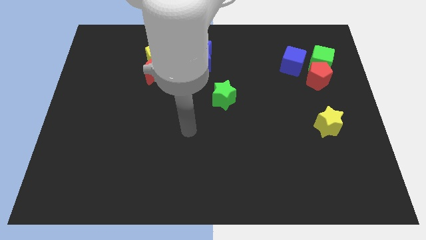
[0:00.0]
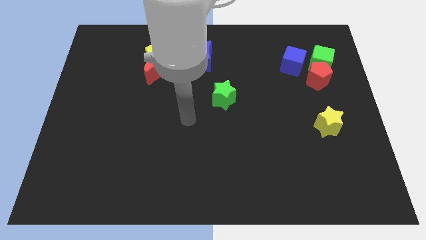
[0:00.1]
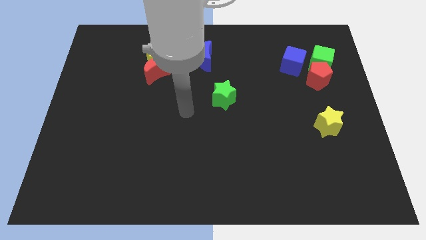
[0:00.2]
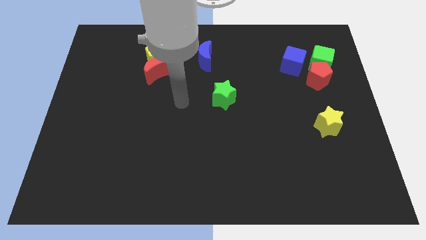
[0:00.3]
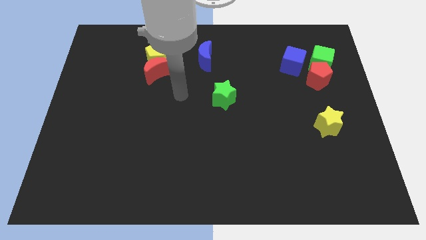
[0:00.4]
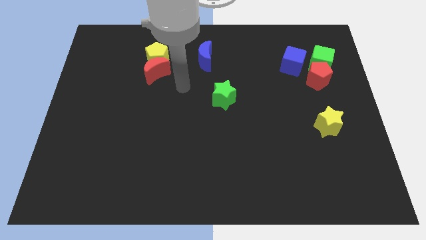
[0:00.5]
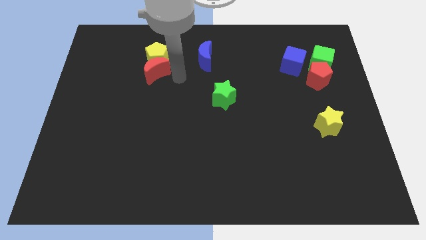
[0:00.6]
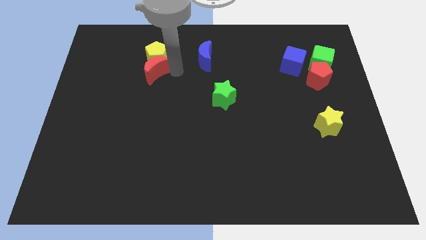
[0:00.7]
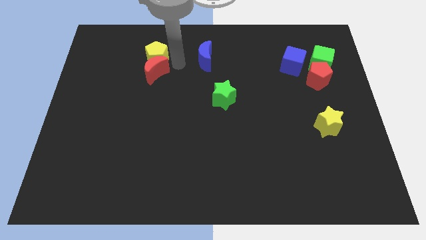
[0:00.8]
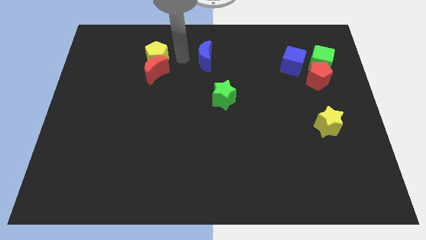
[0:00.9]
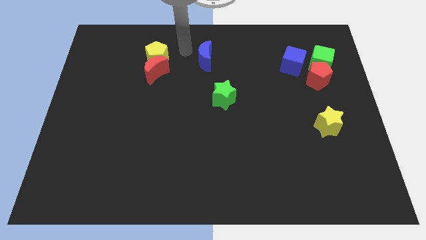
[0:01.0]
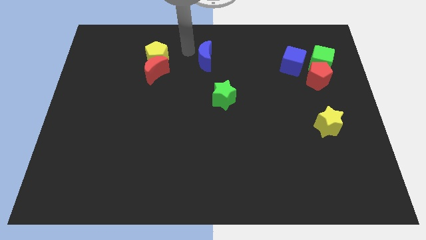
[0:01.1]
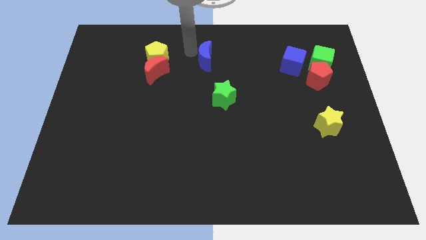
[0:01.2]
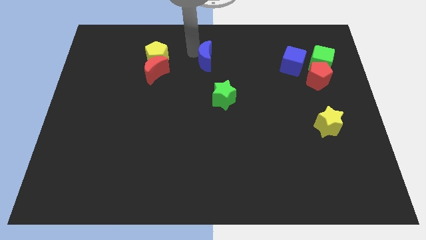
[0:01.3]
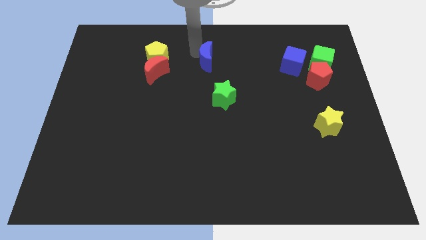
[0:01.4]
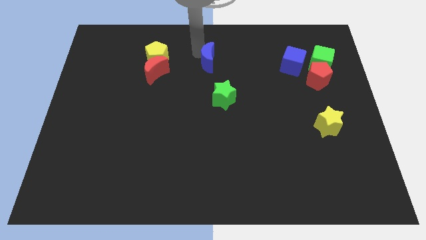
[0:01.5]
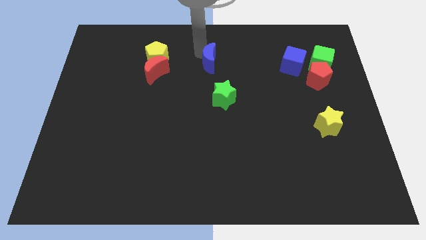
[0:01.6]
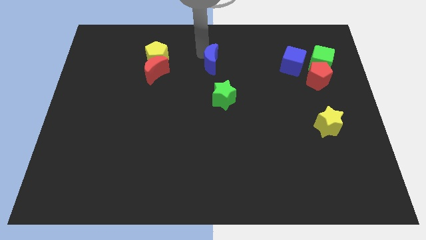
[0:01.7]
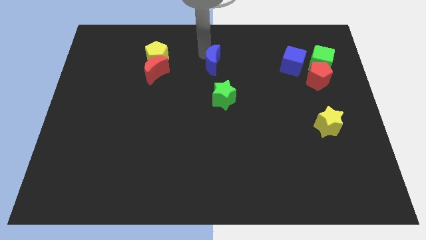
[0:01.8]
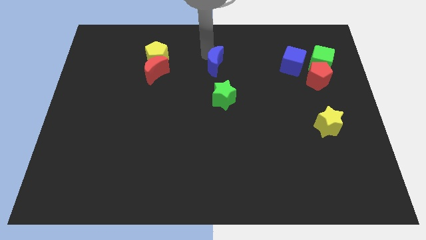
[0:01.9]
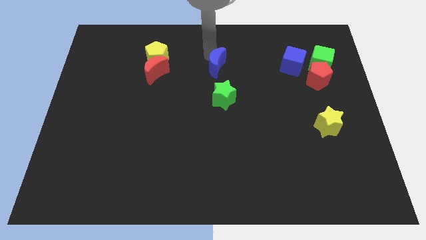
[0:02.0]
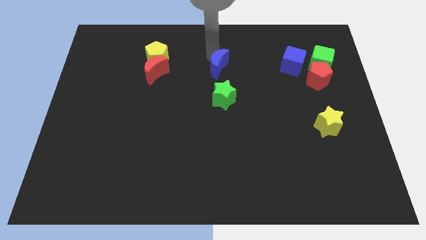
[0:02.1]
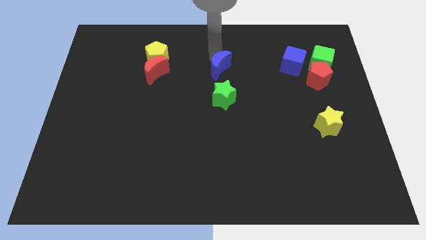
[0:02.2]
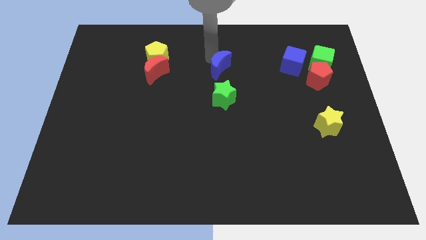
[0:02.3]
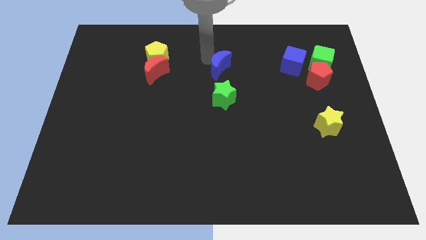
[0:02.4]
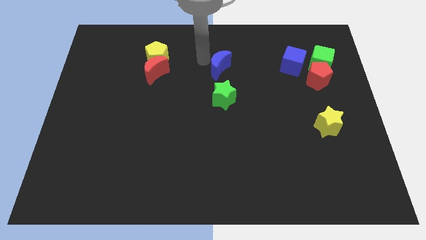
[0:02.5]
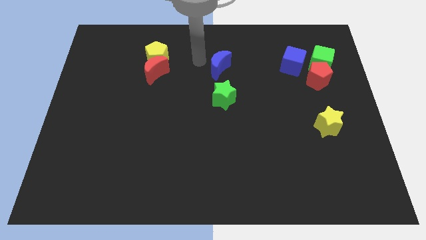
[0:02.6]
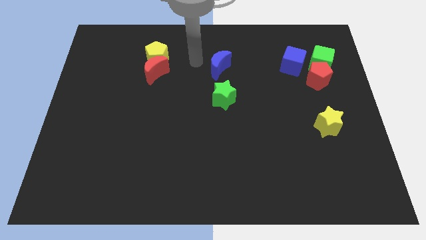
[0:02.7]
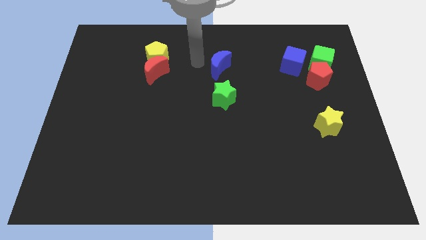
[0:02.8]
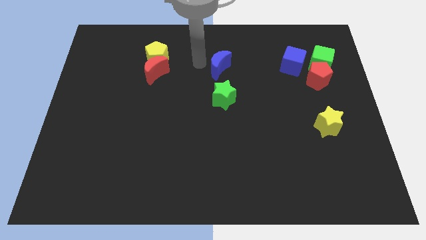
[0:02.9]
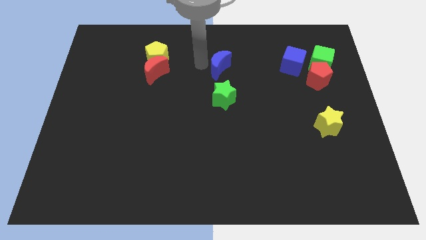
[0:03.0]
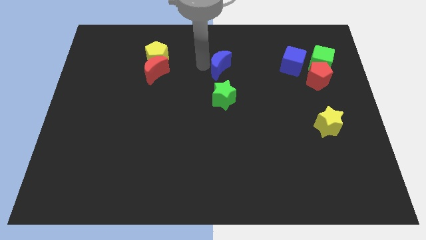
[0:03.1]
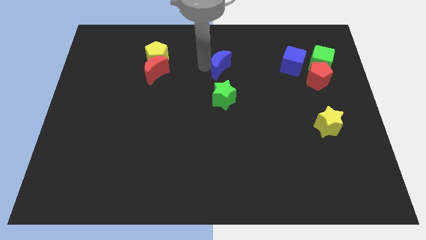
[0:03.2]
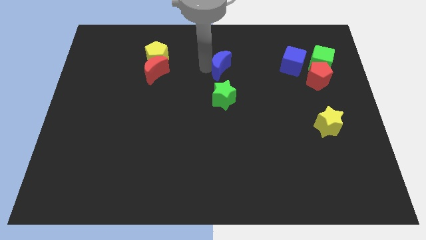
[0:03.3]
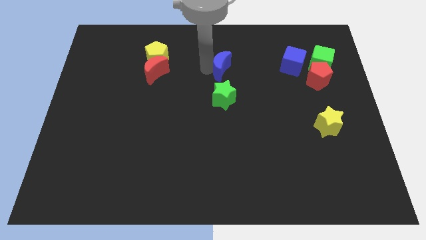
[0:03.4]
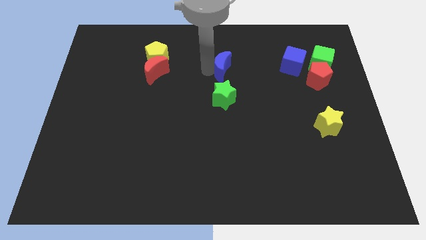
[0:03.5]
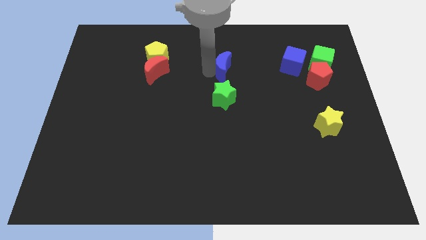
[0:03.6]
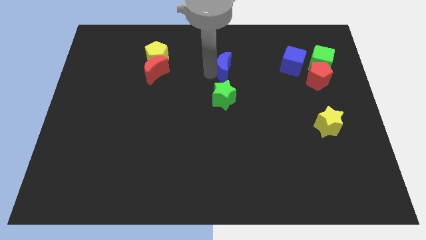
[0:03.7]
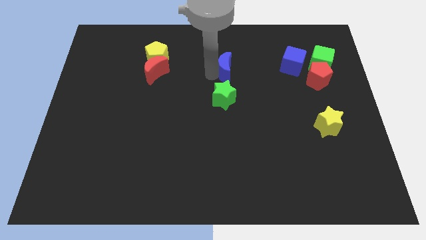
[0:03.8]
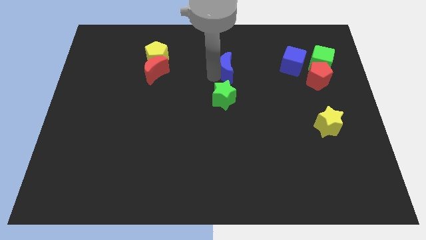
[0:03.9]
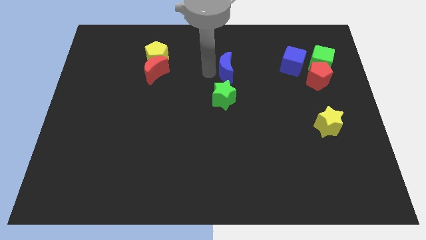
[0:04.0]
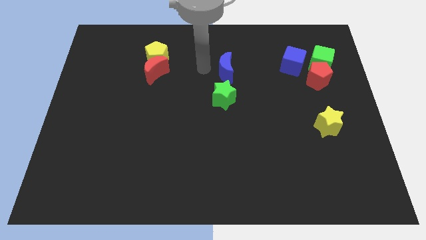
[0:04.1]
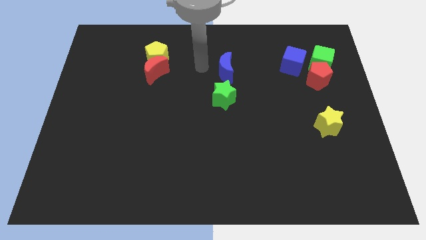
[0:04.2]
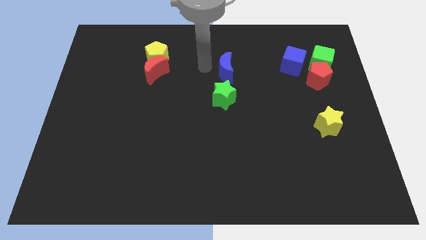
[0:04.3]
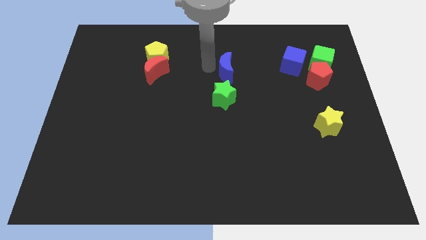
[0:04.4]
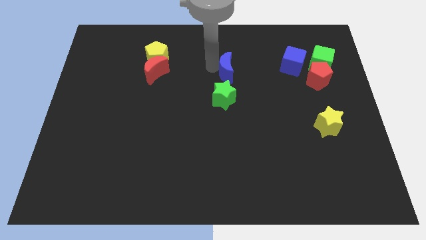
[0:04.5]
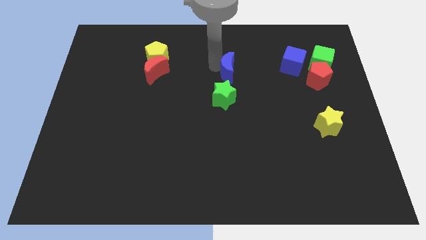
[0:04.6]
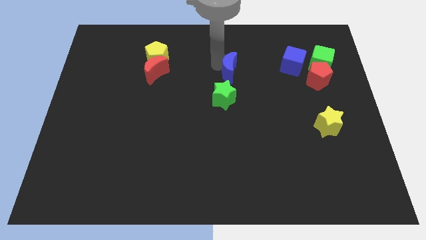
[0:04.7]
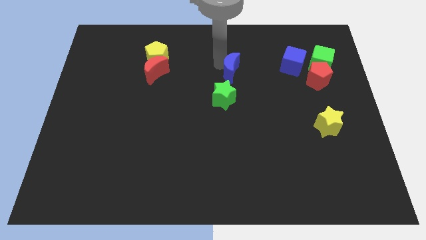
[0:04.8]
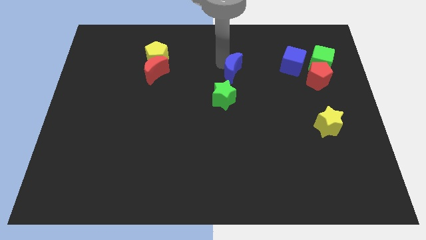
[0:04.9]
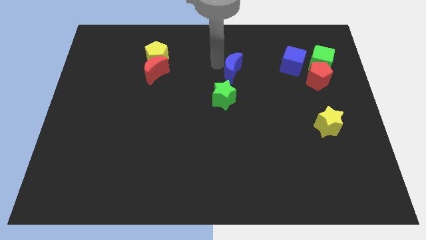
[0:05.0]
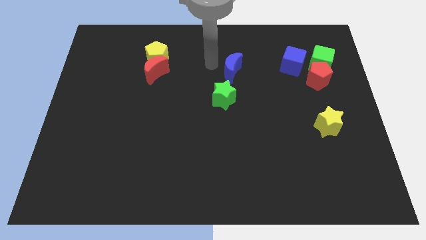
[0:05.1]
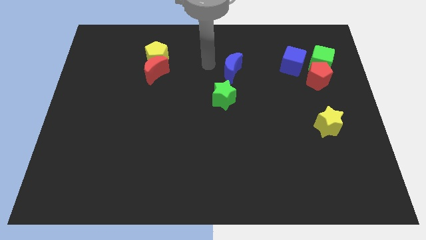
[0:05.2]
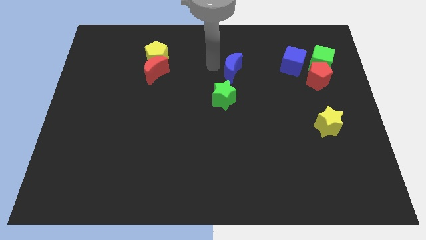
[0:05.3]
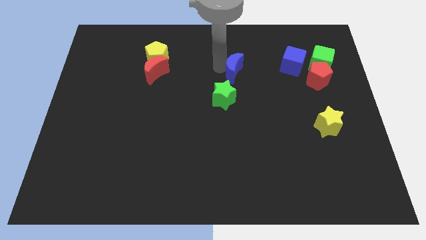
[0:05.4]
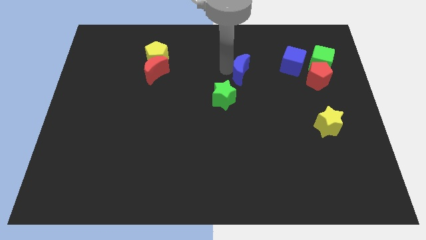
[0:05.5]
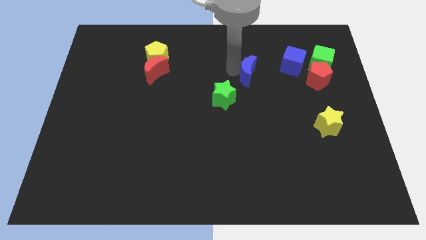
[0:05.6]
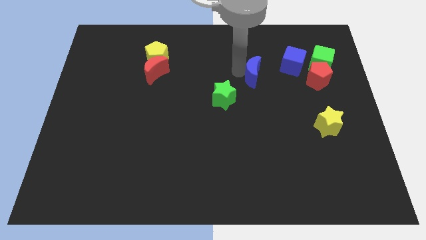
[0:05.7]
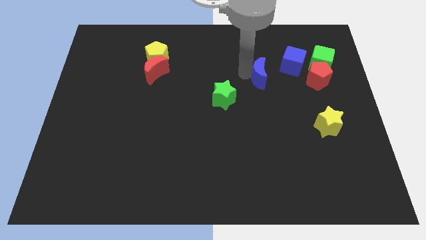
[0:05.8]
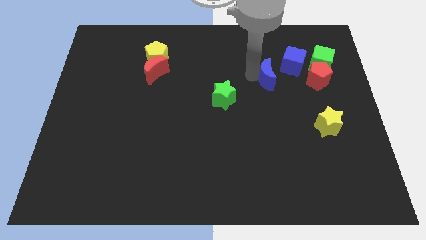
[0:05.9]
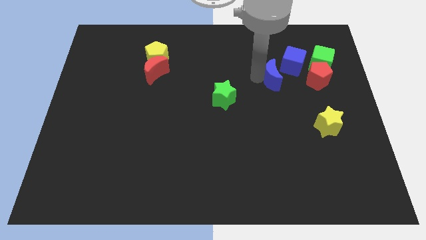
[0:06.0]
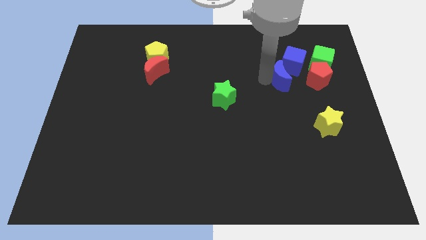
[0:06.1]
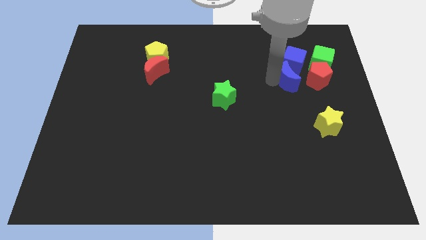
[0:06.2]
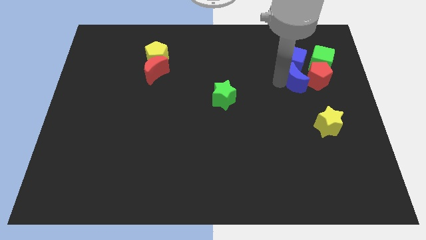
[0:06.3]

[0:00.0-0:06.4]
slide the blue moon next to the red pentagon

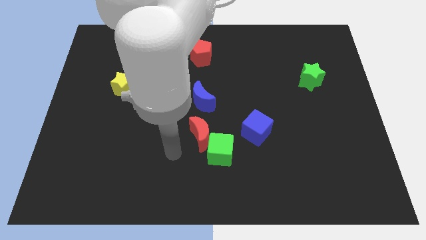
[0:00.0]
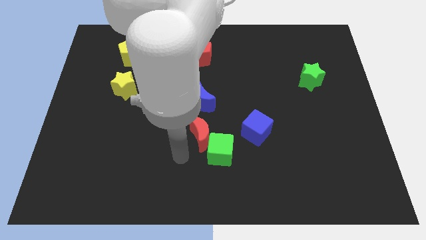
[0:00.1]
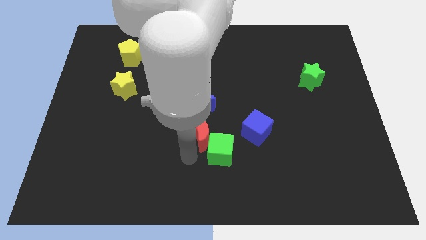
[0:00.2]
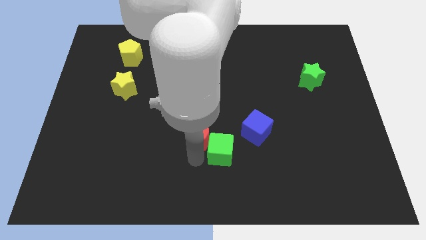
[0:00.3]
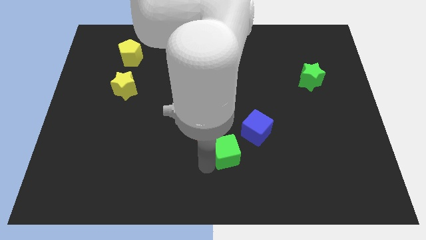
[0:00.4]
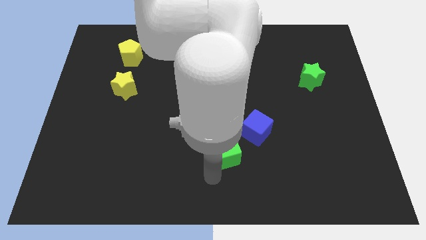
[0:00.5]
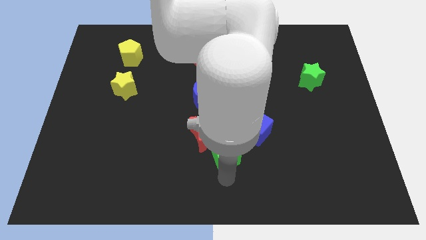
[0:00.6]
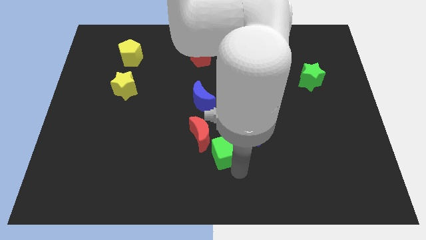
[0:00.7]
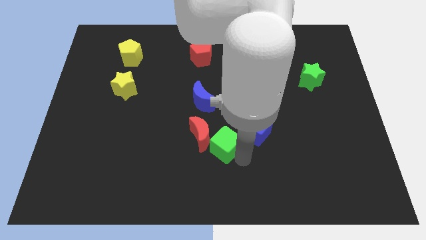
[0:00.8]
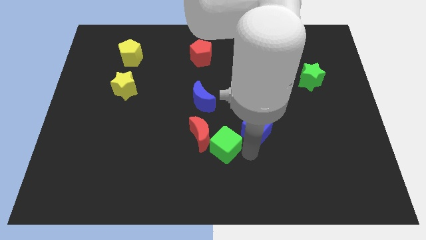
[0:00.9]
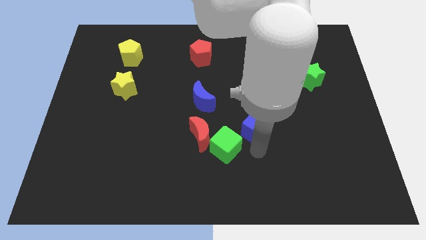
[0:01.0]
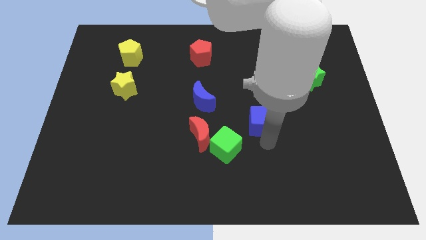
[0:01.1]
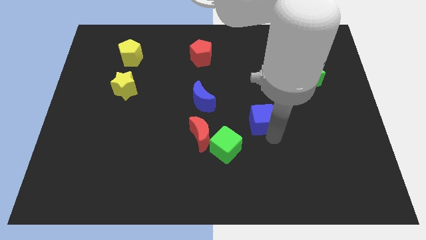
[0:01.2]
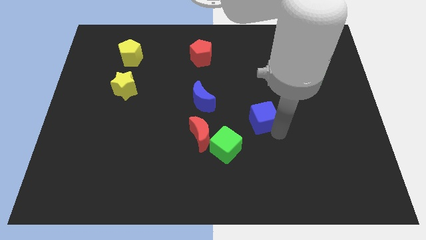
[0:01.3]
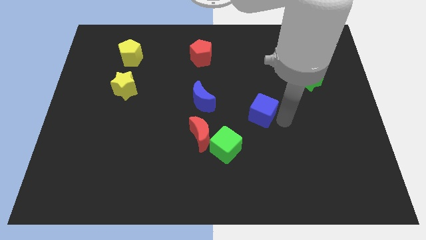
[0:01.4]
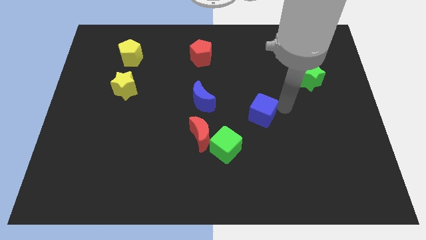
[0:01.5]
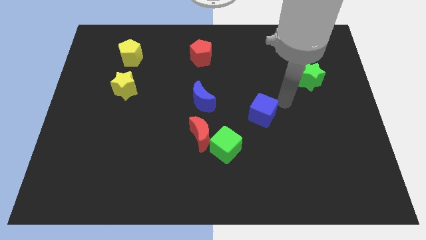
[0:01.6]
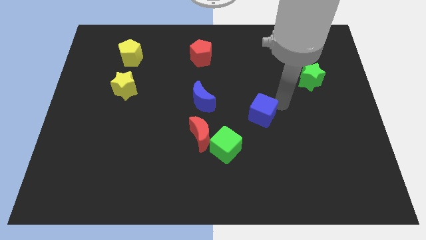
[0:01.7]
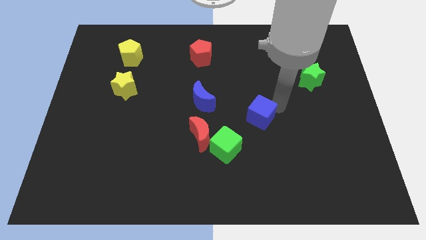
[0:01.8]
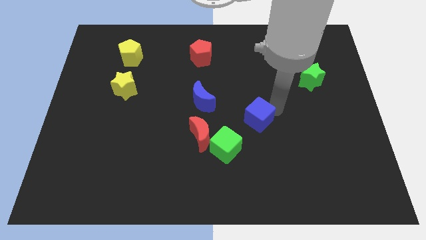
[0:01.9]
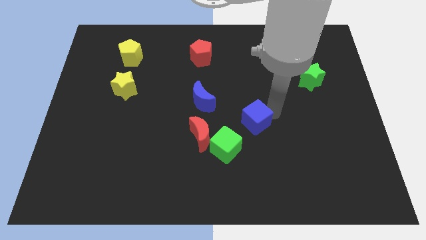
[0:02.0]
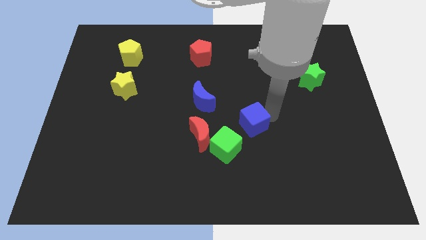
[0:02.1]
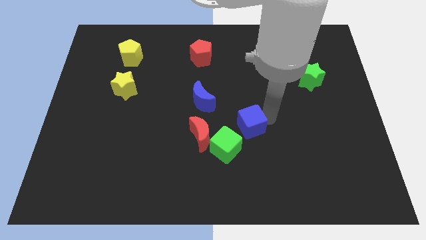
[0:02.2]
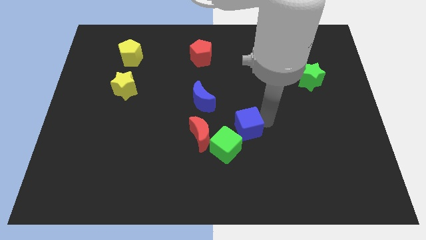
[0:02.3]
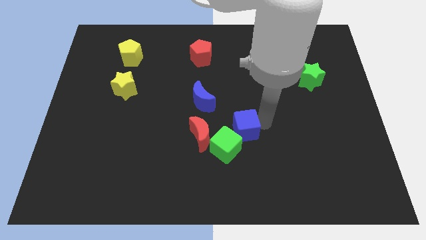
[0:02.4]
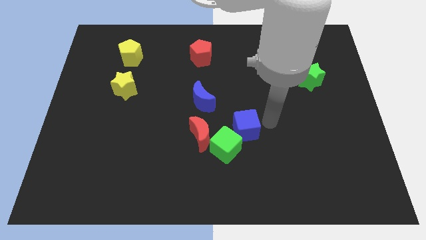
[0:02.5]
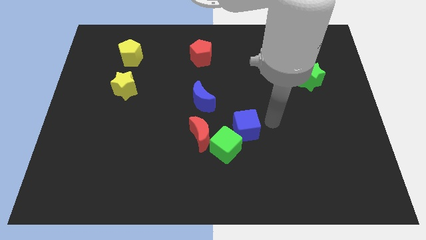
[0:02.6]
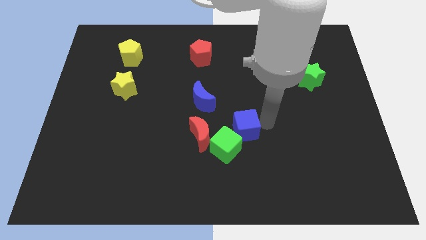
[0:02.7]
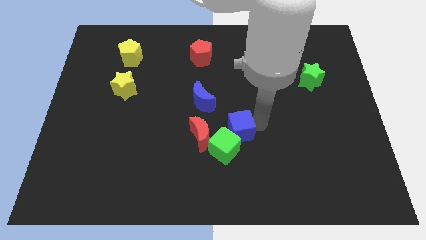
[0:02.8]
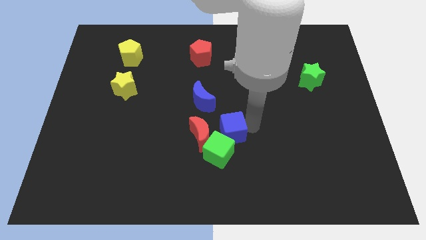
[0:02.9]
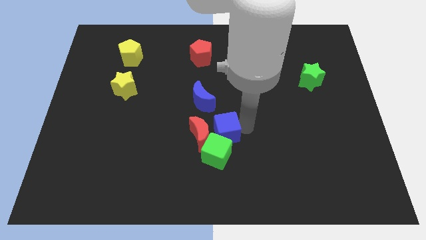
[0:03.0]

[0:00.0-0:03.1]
put the blue cube towards the red moon
